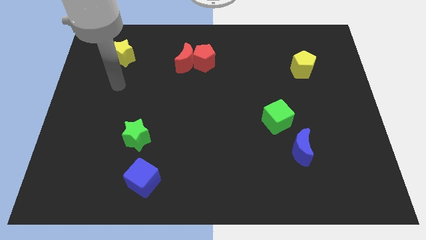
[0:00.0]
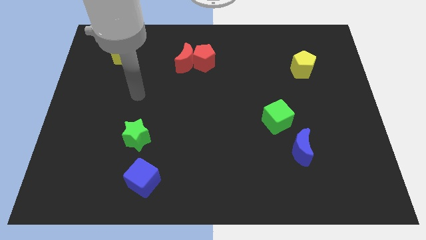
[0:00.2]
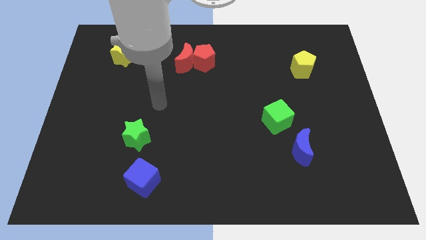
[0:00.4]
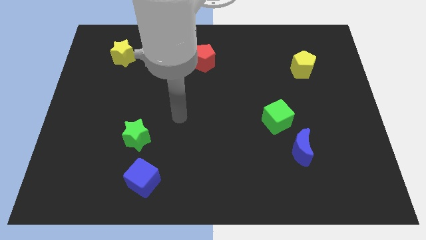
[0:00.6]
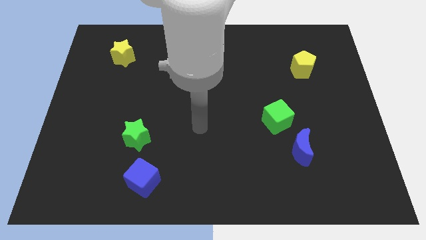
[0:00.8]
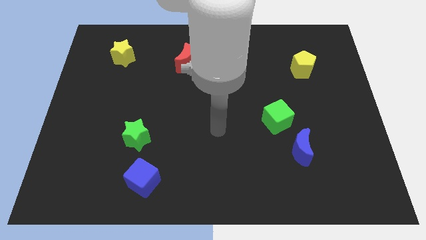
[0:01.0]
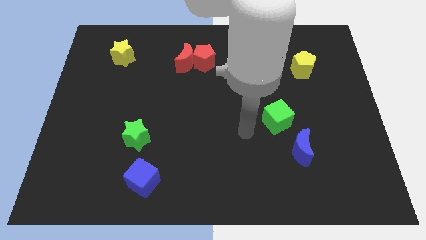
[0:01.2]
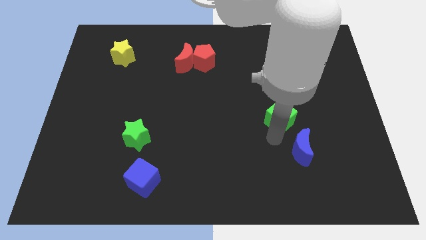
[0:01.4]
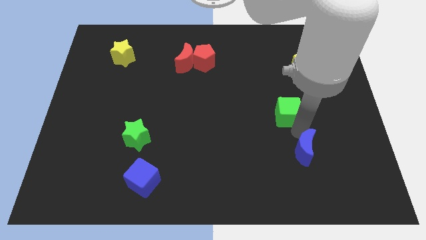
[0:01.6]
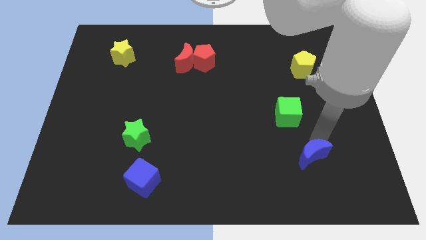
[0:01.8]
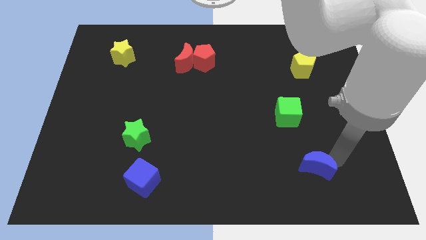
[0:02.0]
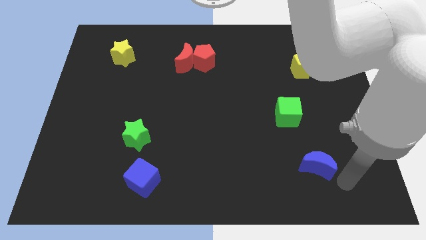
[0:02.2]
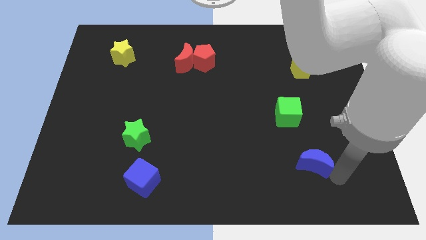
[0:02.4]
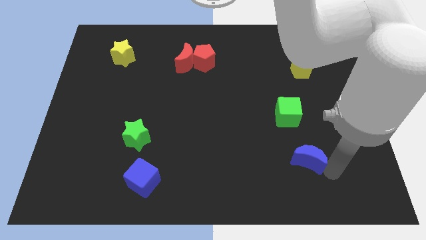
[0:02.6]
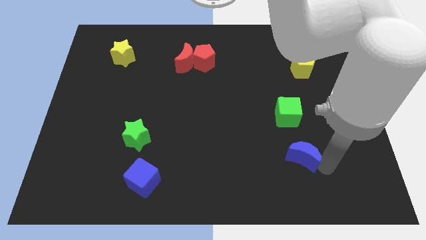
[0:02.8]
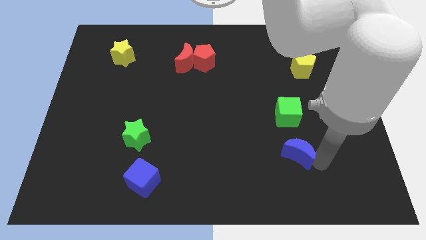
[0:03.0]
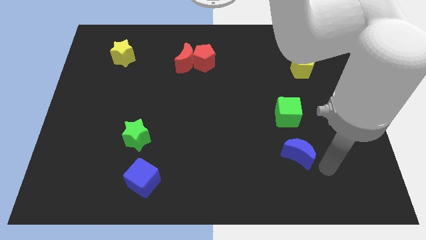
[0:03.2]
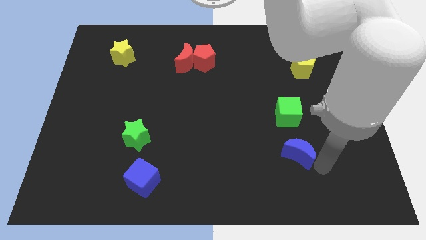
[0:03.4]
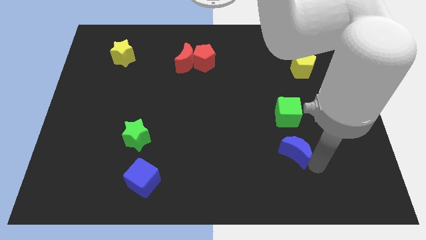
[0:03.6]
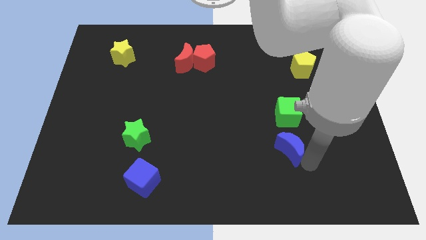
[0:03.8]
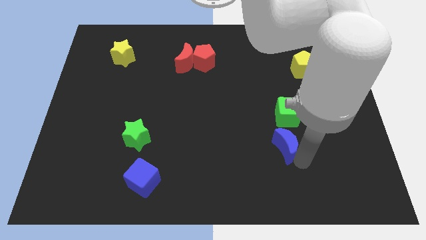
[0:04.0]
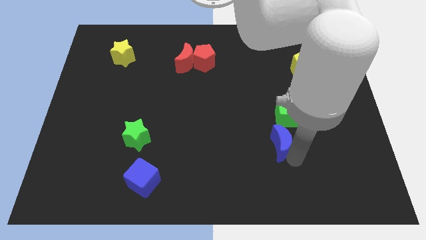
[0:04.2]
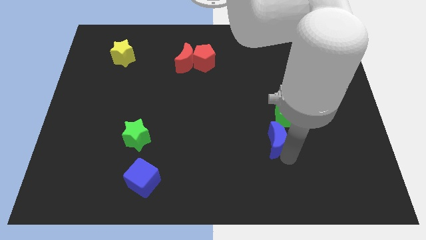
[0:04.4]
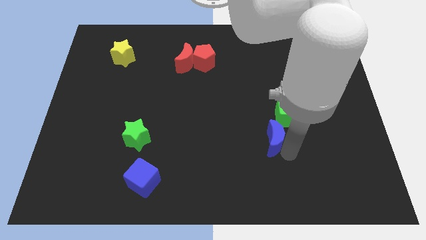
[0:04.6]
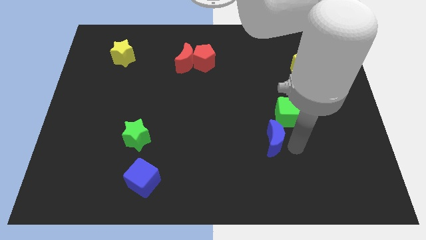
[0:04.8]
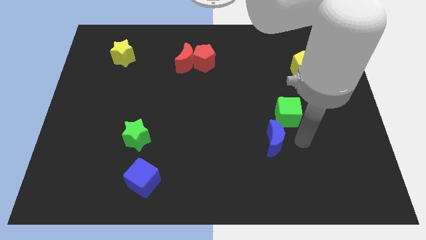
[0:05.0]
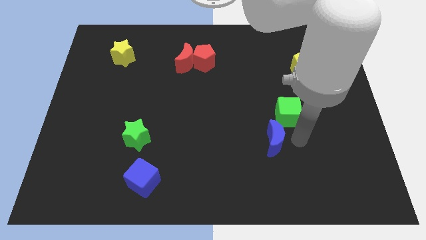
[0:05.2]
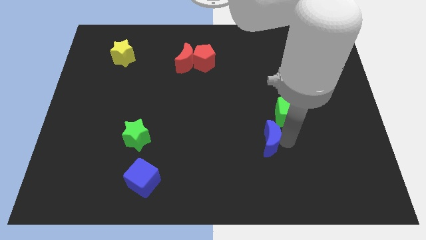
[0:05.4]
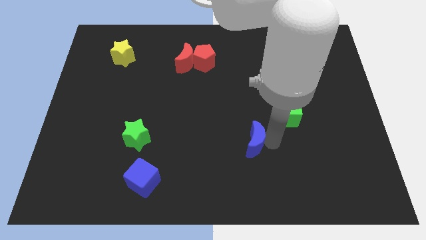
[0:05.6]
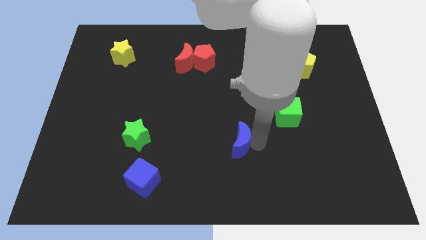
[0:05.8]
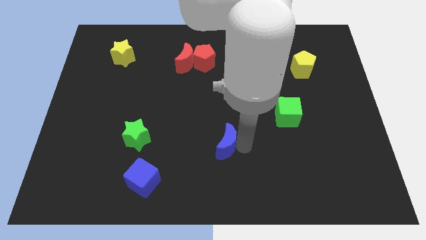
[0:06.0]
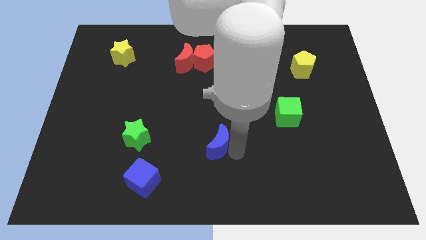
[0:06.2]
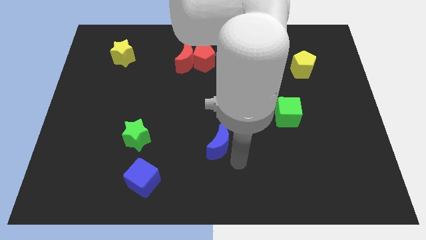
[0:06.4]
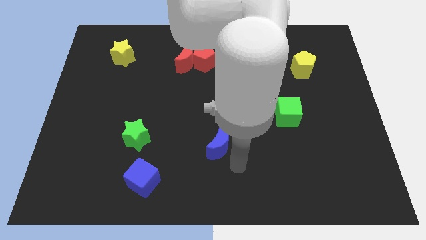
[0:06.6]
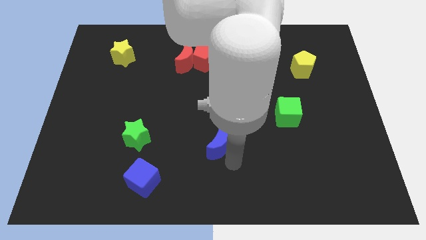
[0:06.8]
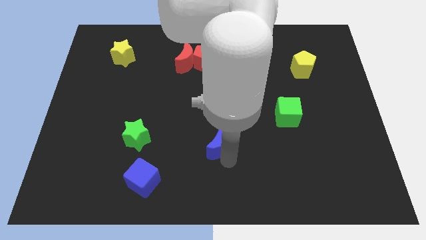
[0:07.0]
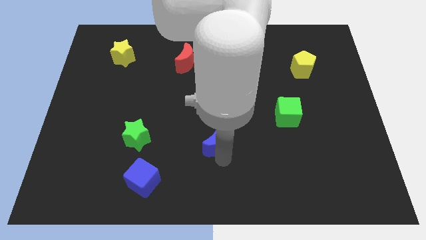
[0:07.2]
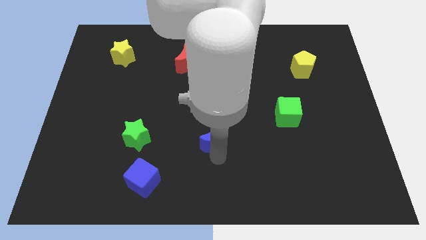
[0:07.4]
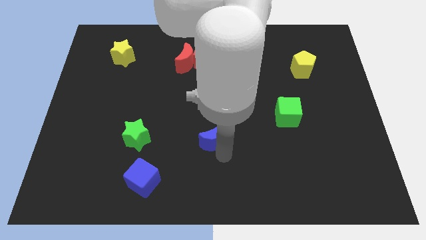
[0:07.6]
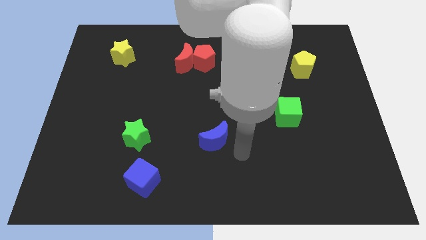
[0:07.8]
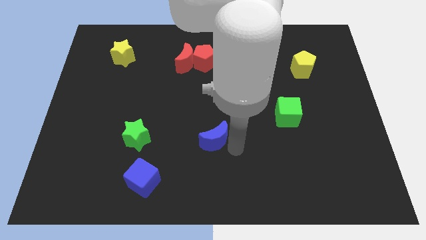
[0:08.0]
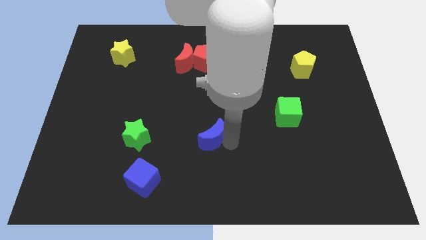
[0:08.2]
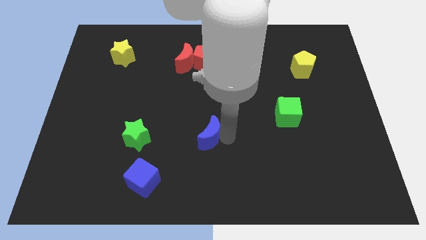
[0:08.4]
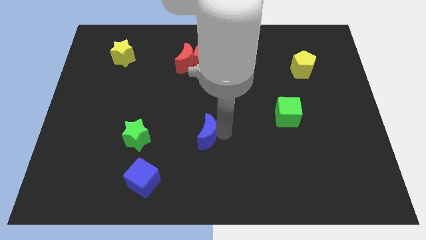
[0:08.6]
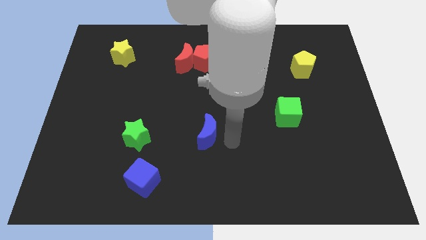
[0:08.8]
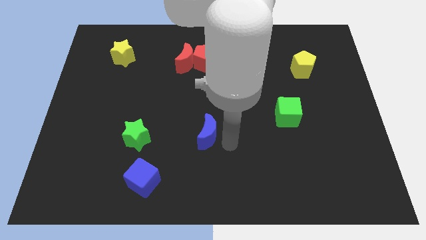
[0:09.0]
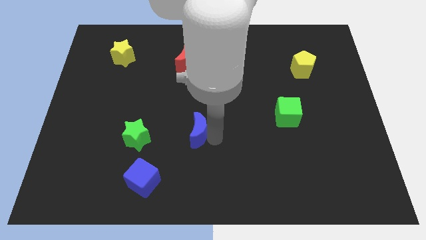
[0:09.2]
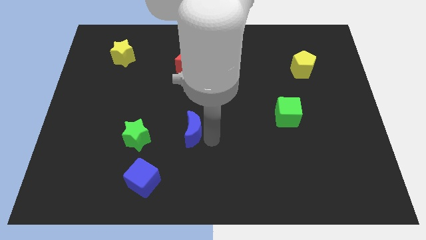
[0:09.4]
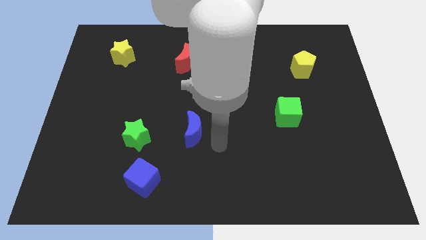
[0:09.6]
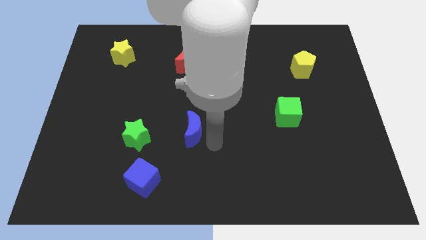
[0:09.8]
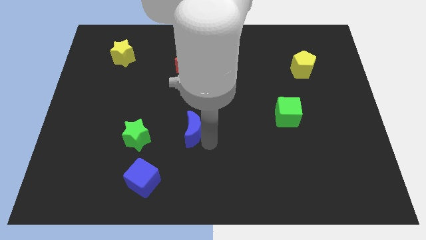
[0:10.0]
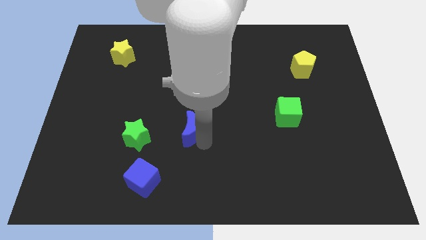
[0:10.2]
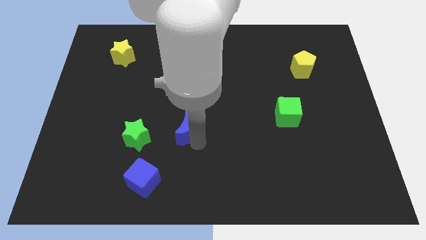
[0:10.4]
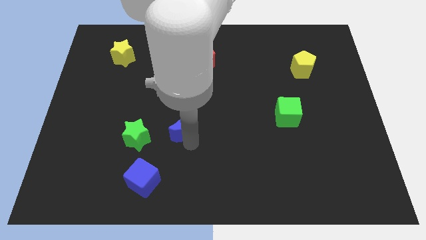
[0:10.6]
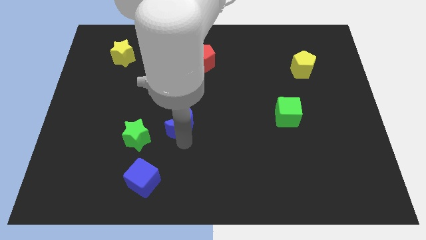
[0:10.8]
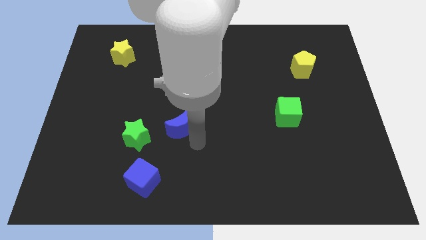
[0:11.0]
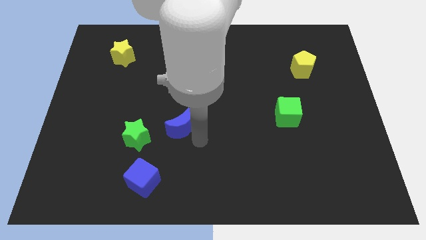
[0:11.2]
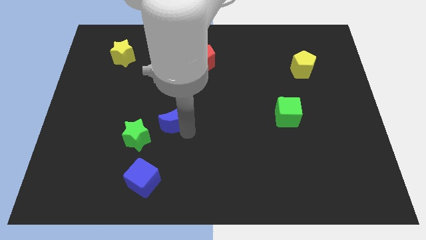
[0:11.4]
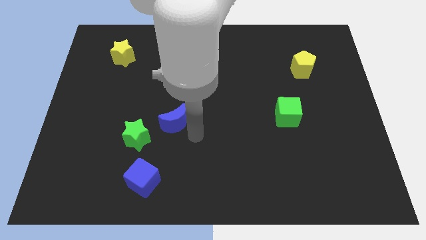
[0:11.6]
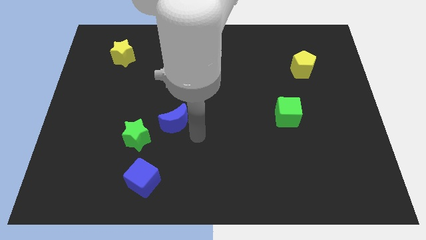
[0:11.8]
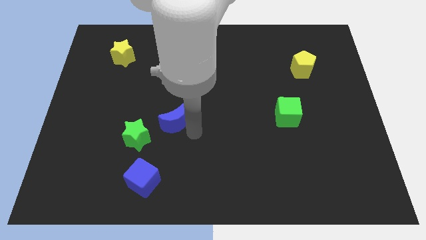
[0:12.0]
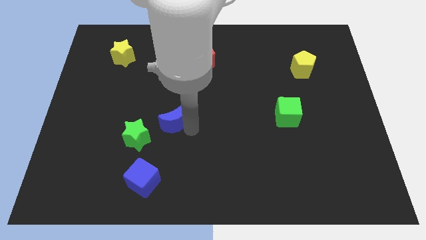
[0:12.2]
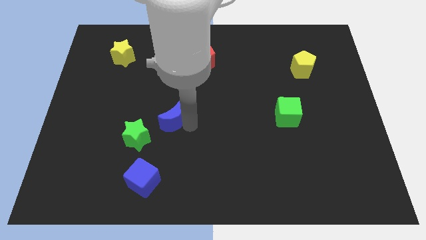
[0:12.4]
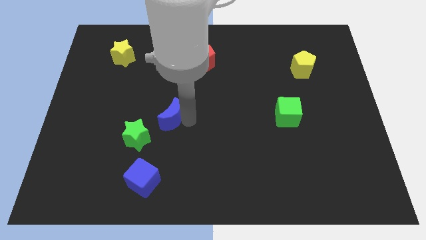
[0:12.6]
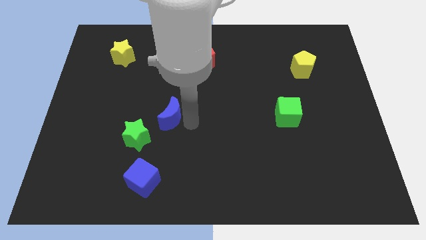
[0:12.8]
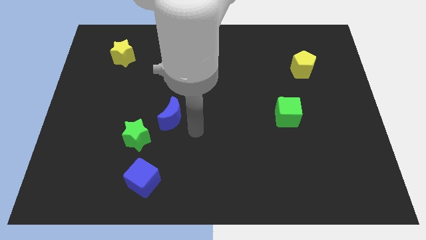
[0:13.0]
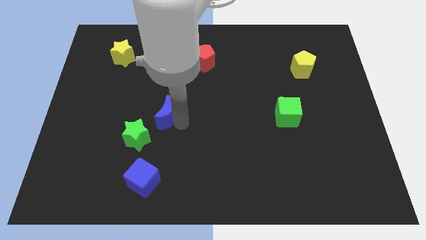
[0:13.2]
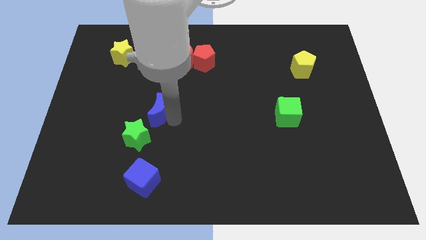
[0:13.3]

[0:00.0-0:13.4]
push the blue moon above the green star

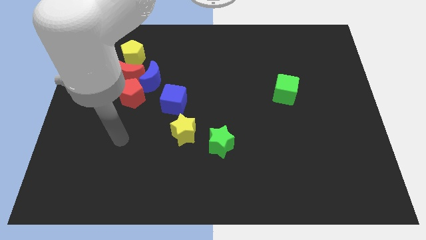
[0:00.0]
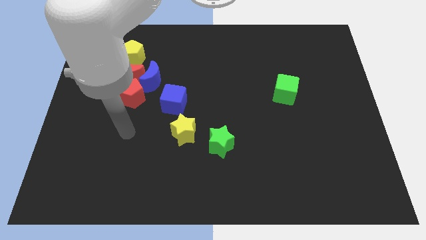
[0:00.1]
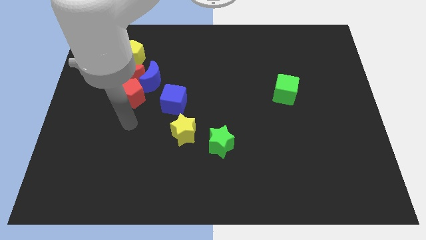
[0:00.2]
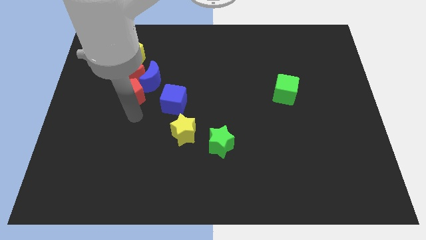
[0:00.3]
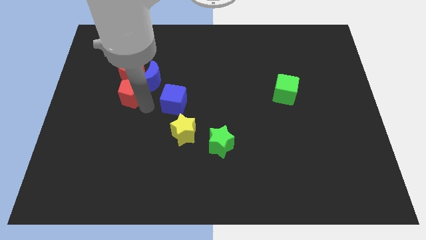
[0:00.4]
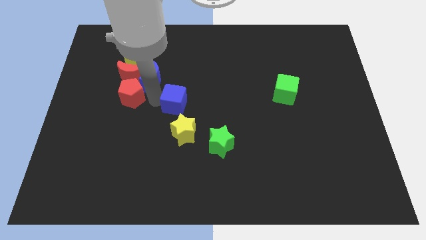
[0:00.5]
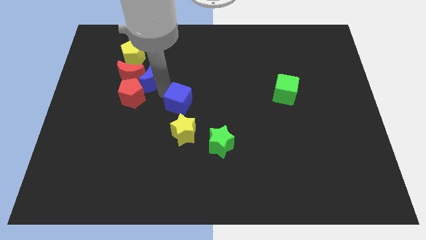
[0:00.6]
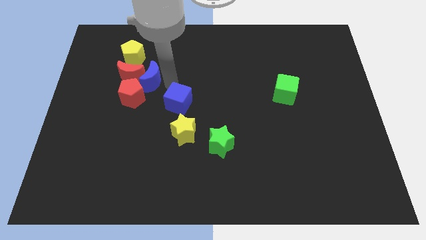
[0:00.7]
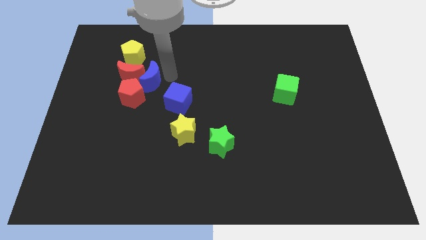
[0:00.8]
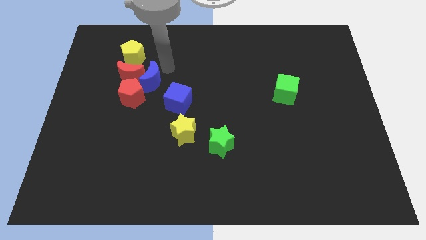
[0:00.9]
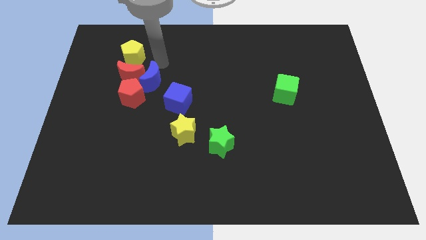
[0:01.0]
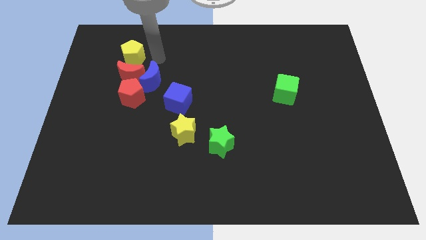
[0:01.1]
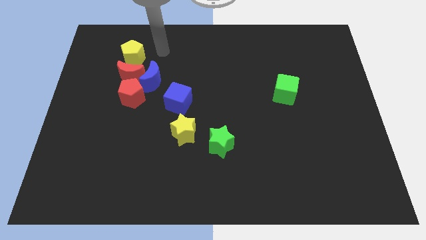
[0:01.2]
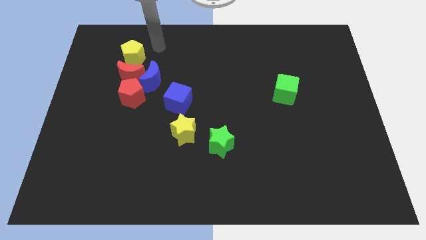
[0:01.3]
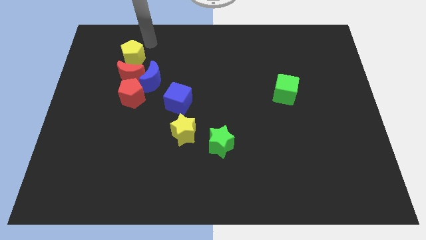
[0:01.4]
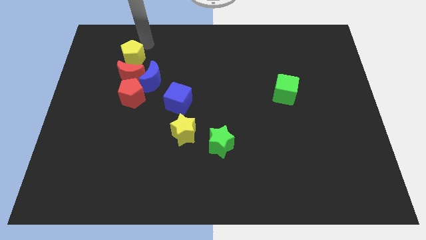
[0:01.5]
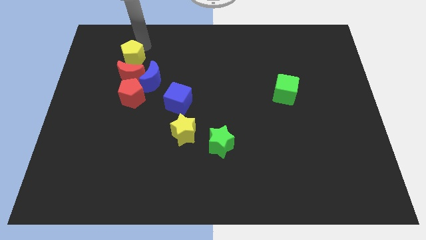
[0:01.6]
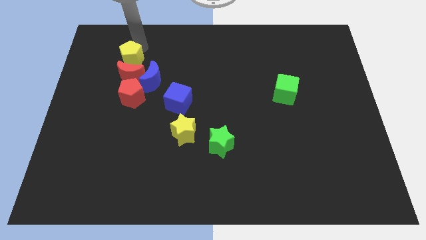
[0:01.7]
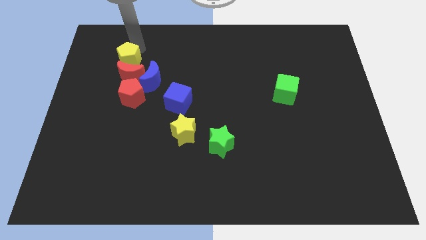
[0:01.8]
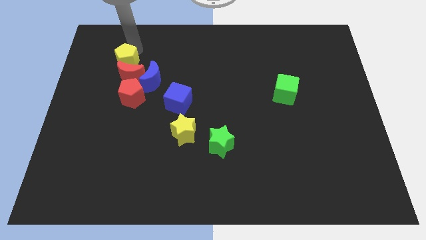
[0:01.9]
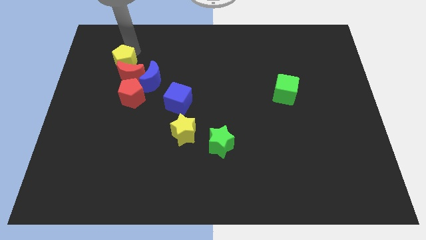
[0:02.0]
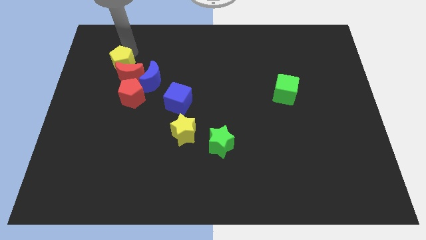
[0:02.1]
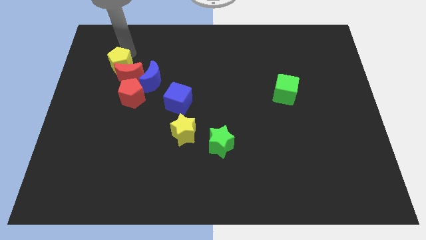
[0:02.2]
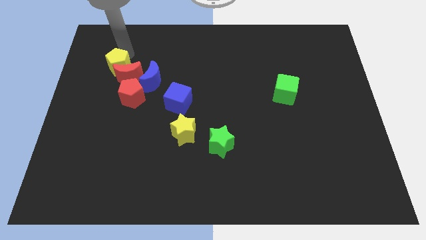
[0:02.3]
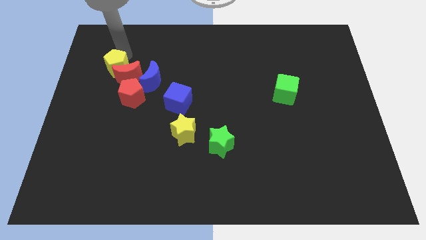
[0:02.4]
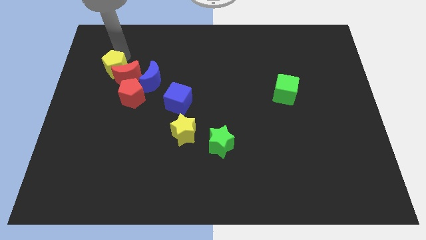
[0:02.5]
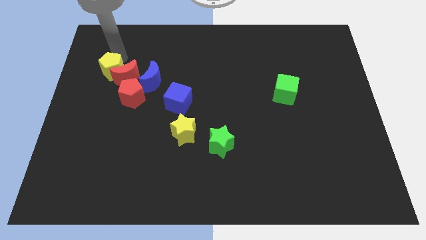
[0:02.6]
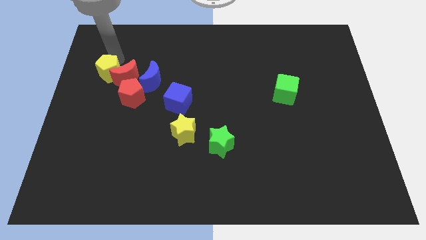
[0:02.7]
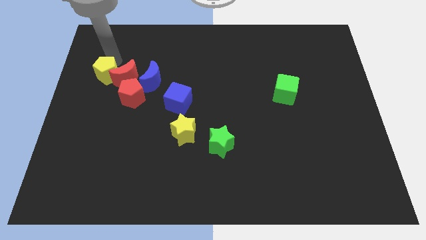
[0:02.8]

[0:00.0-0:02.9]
slide the yellow pentagon diagonally down and to the left of the red moon
